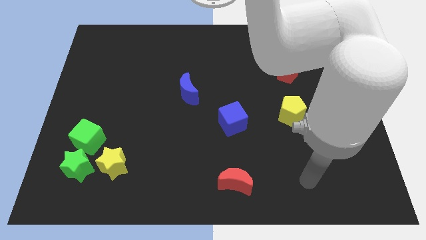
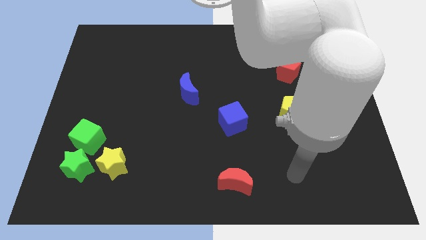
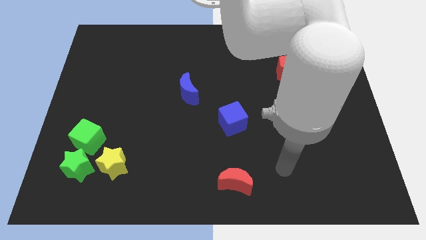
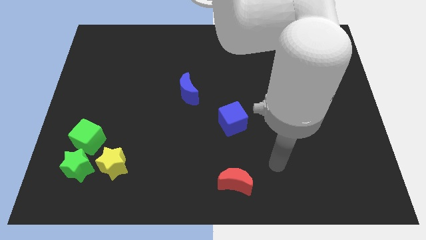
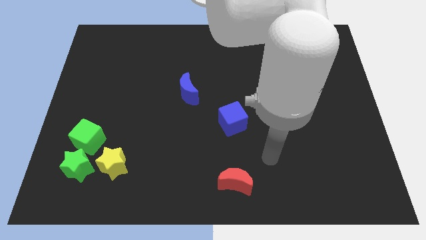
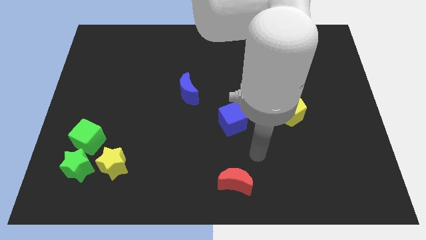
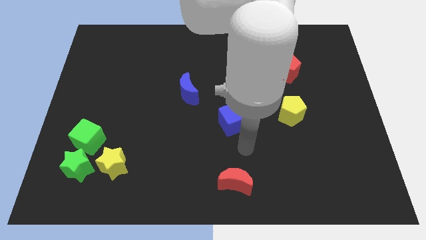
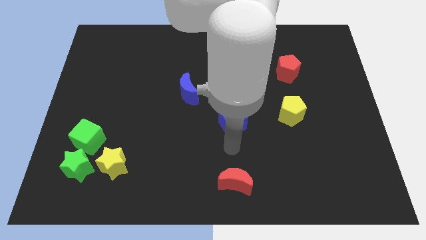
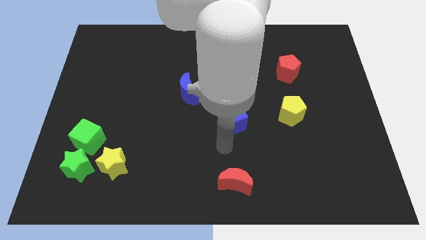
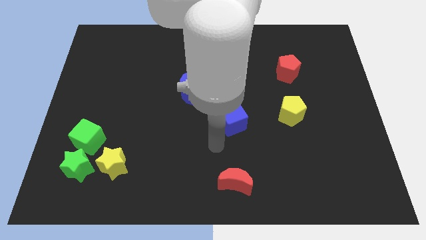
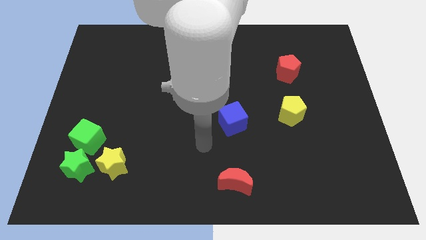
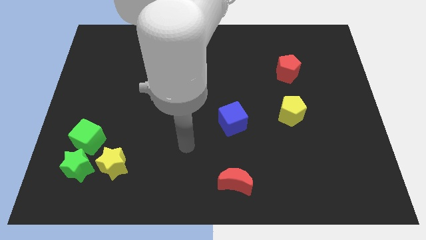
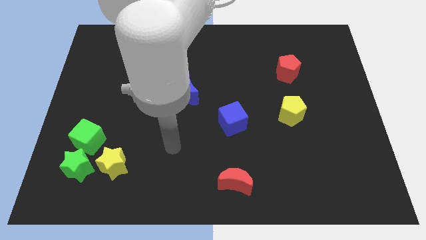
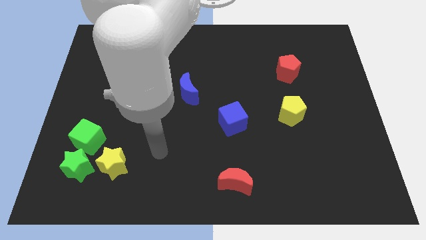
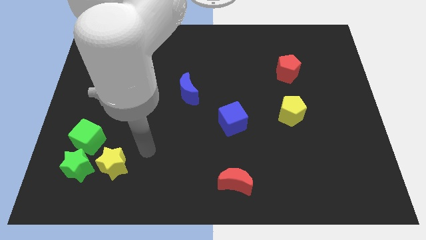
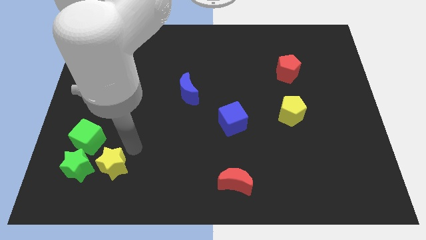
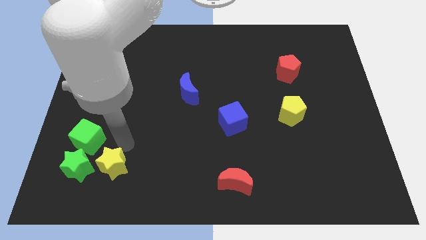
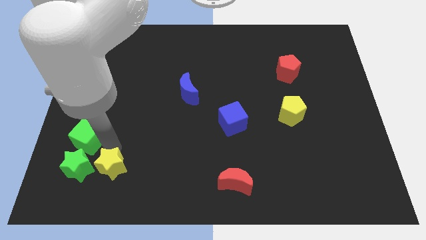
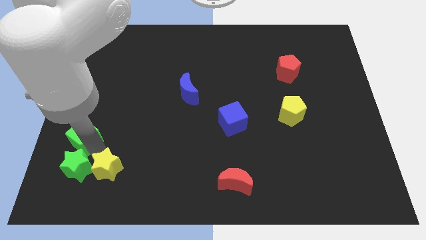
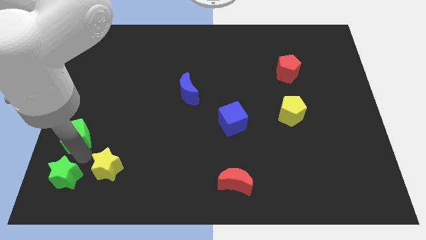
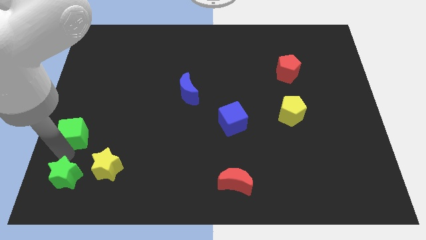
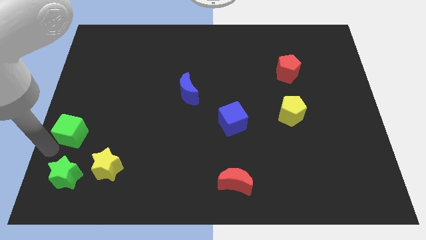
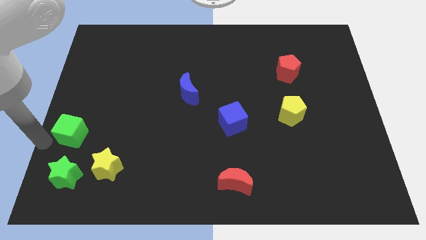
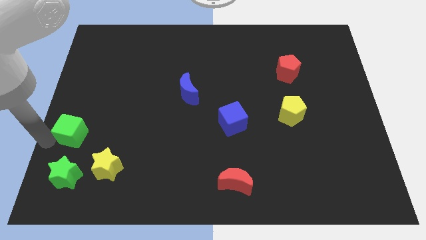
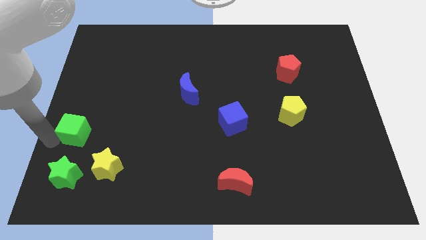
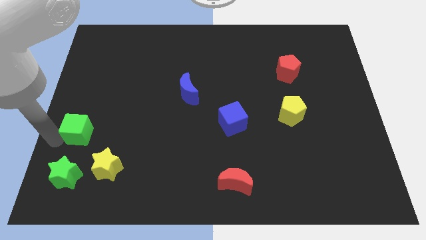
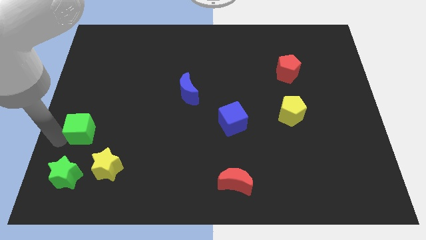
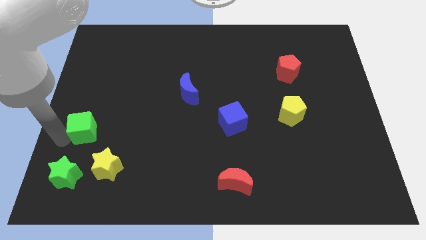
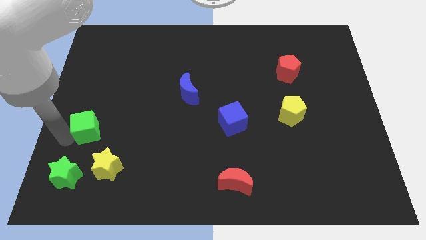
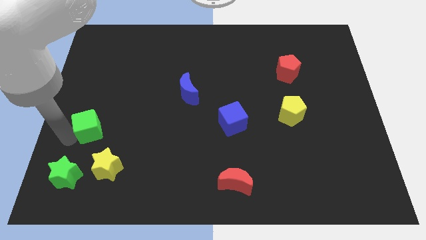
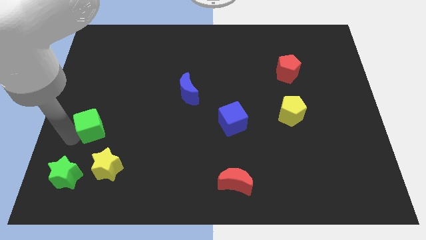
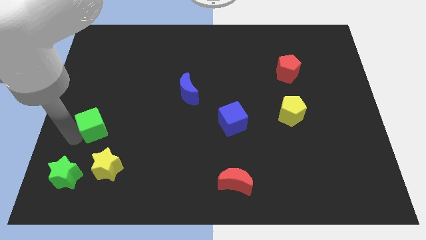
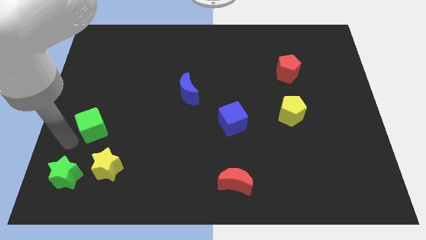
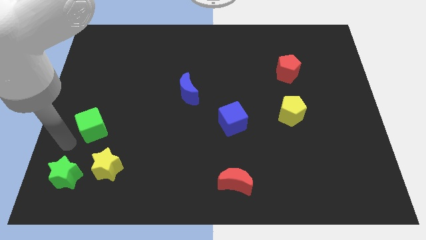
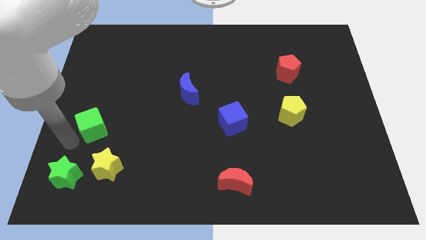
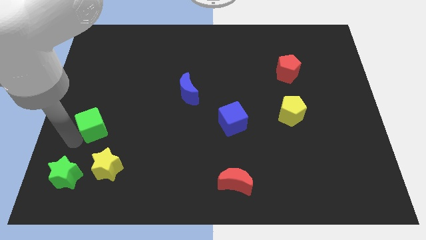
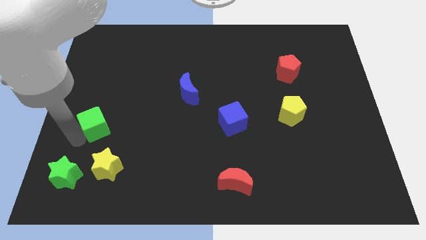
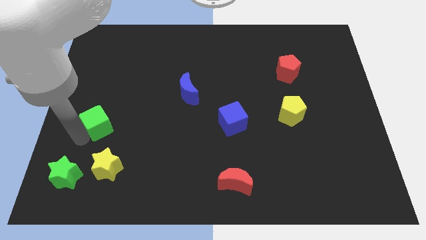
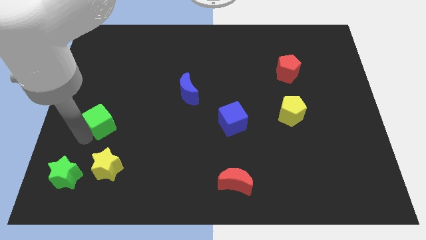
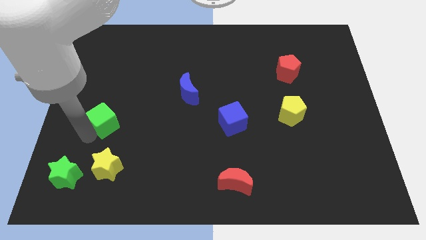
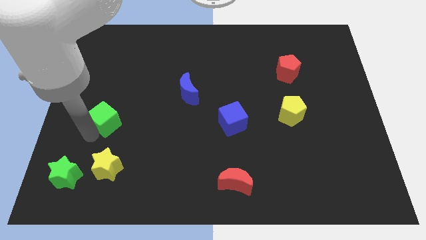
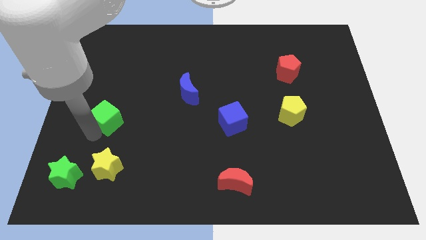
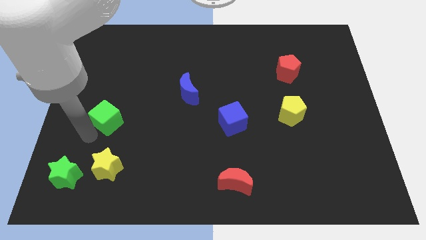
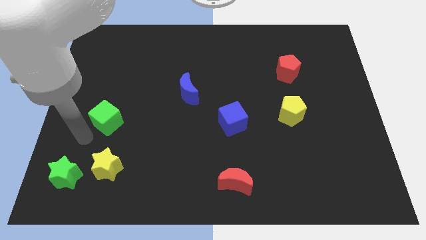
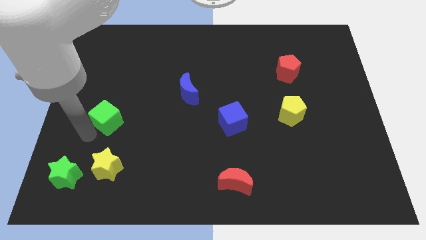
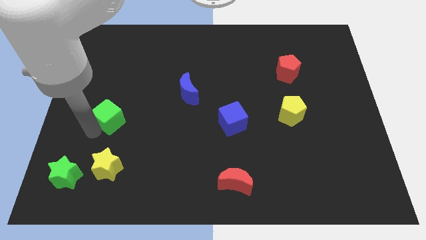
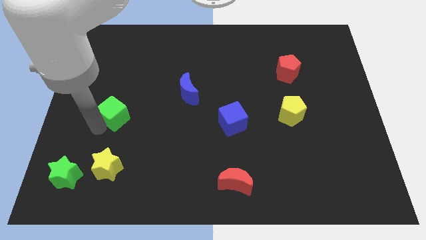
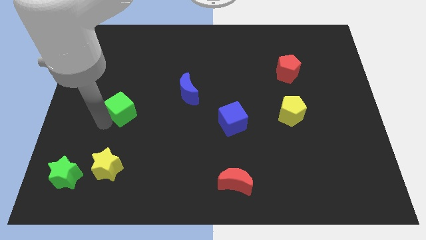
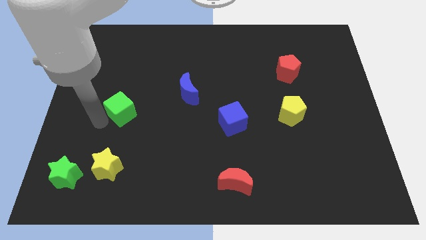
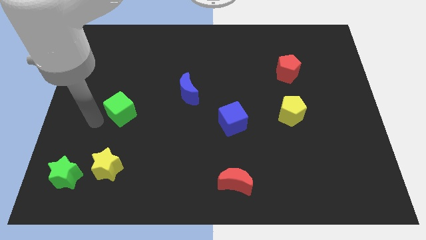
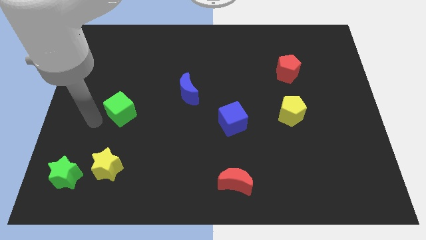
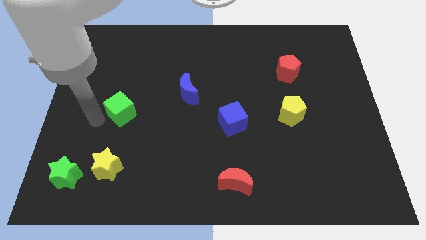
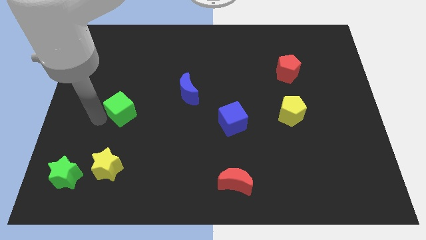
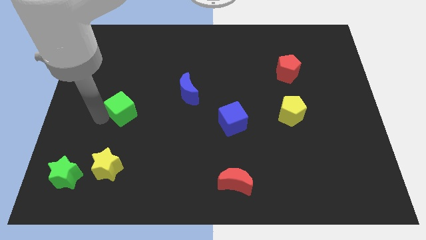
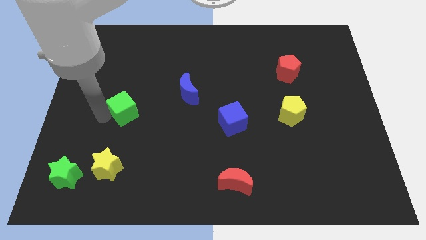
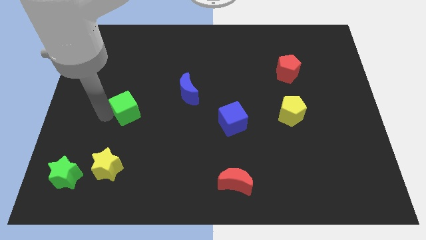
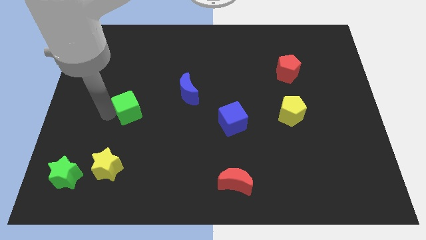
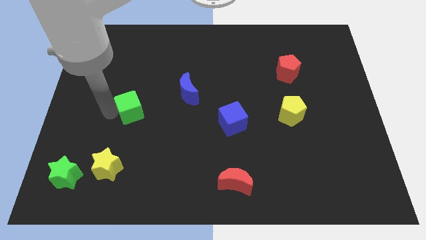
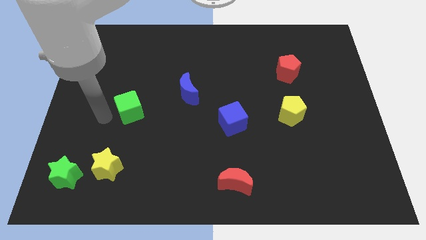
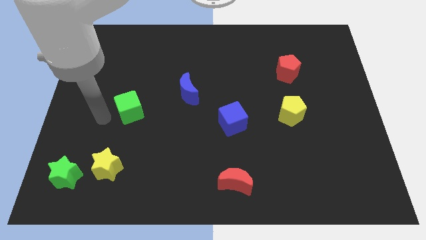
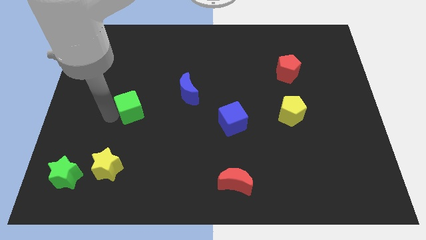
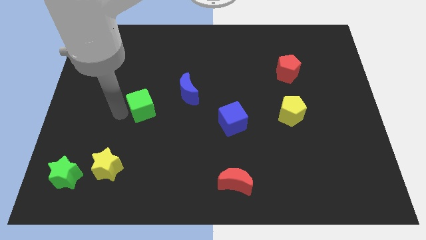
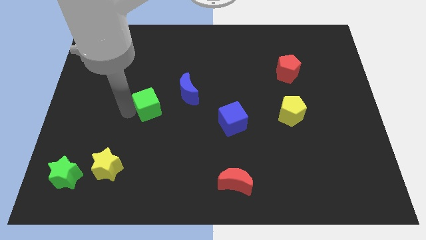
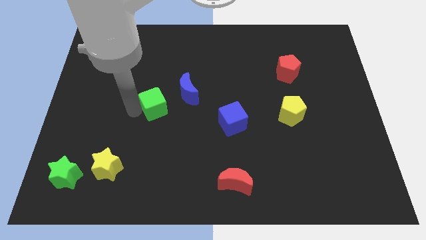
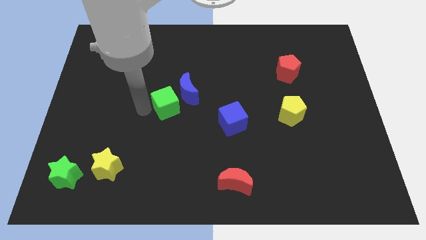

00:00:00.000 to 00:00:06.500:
move the green cube to the blue moon
